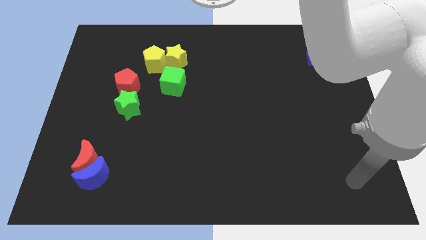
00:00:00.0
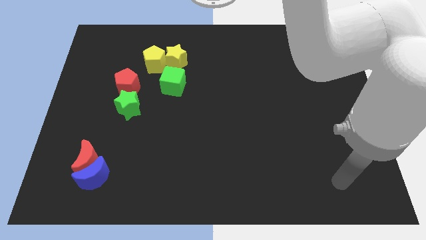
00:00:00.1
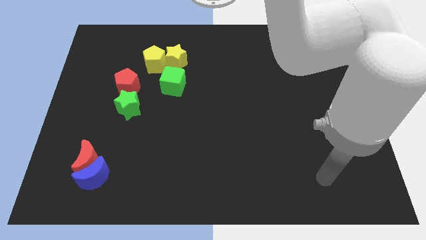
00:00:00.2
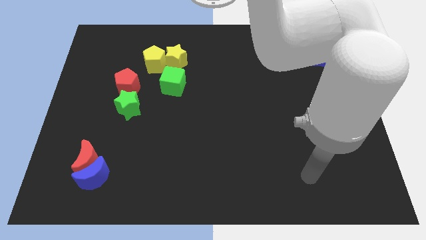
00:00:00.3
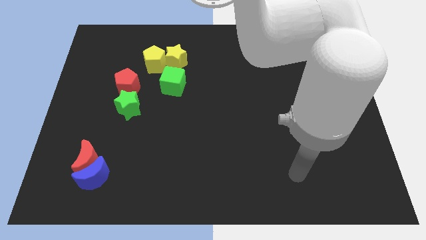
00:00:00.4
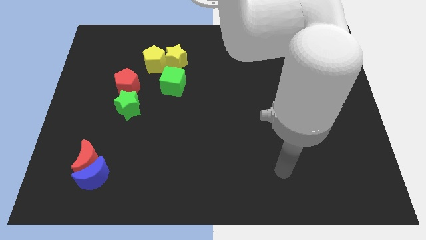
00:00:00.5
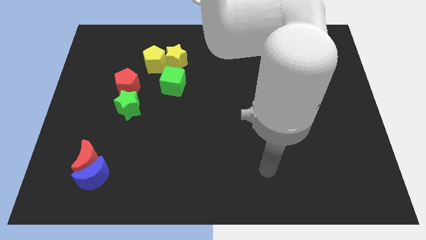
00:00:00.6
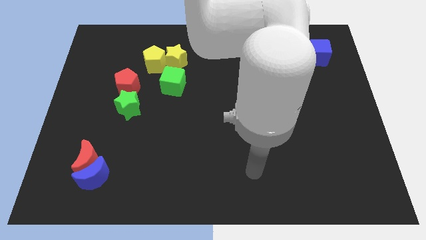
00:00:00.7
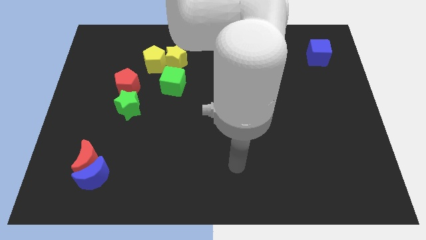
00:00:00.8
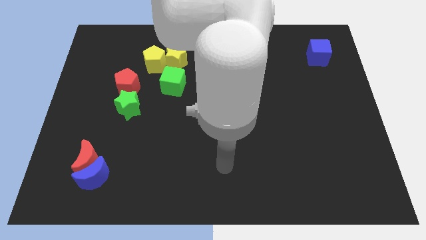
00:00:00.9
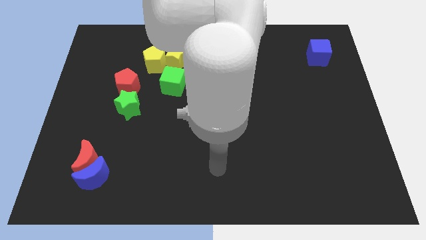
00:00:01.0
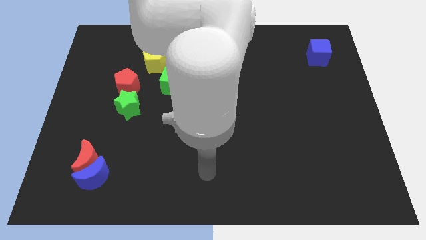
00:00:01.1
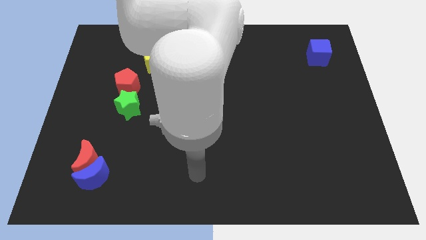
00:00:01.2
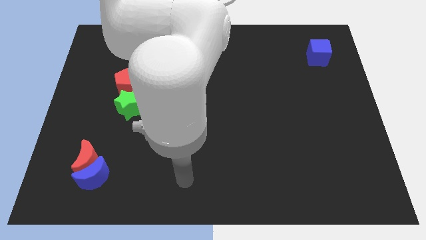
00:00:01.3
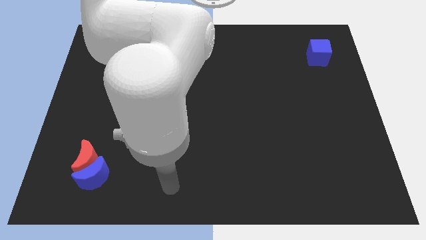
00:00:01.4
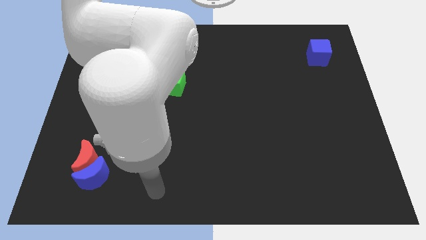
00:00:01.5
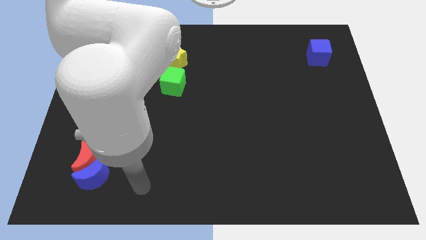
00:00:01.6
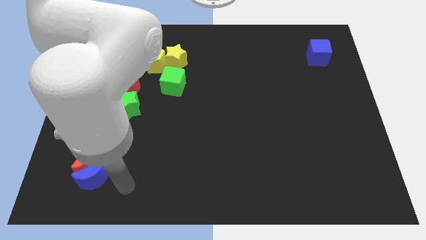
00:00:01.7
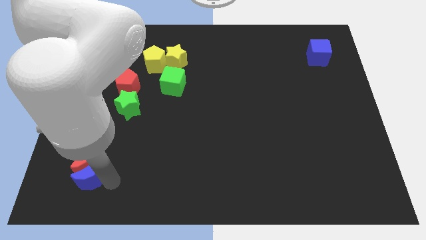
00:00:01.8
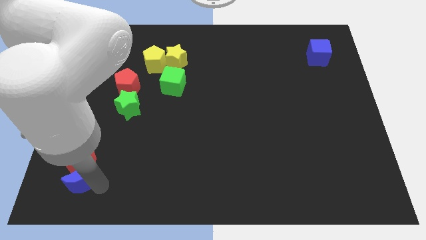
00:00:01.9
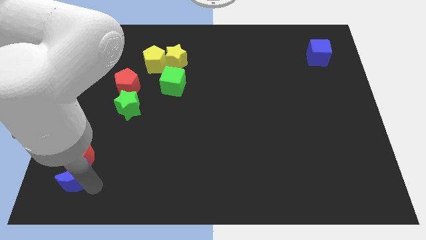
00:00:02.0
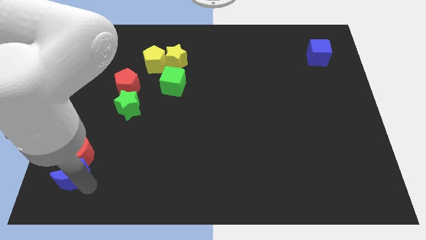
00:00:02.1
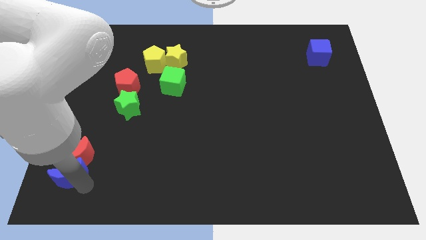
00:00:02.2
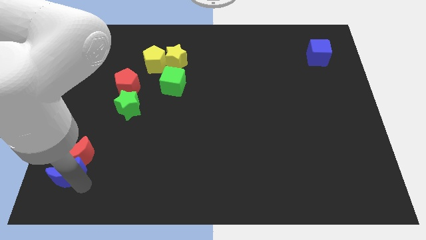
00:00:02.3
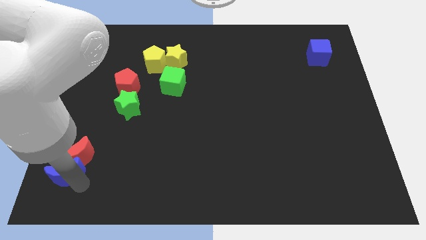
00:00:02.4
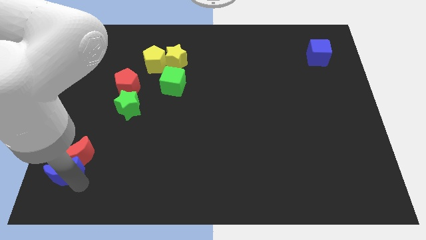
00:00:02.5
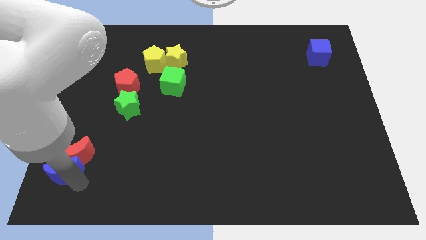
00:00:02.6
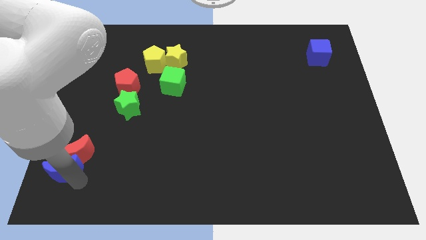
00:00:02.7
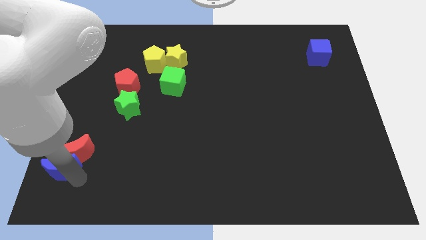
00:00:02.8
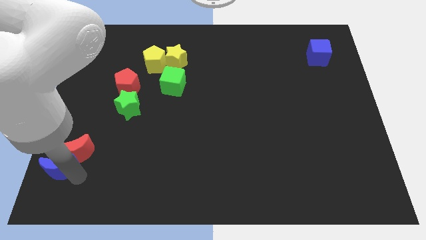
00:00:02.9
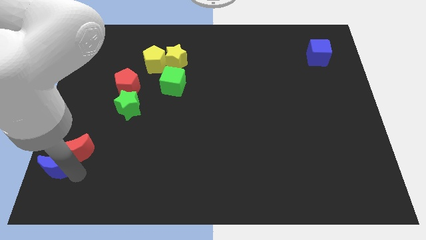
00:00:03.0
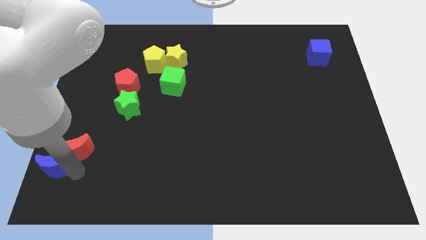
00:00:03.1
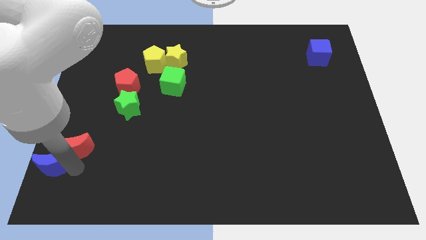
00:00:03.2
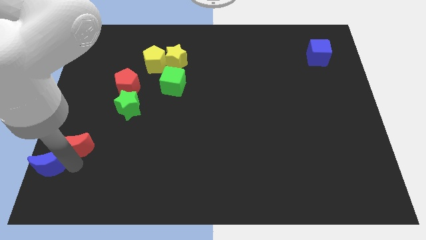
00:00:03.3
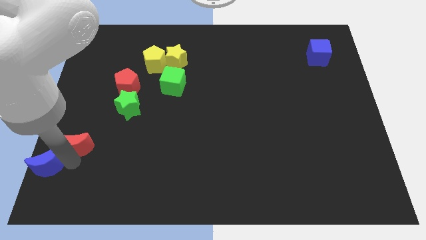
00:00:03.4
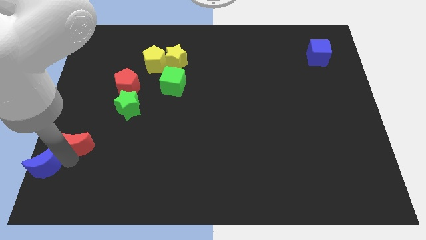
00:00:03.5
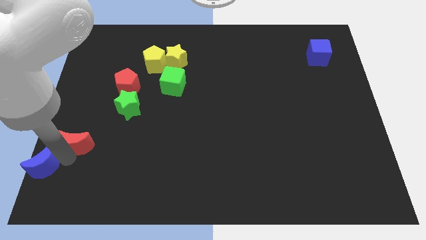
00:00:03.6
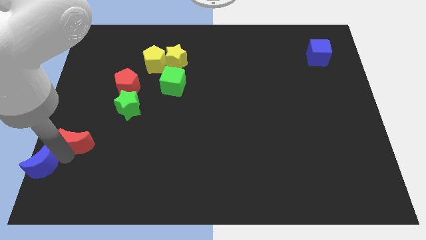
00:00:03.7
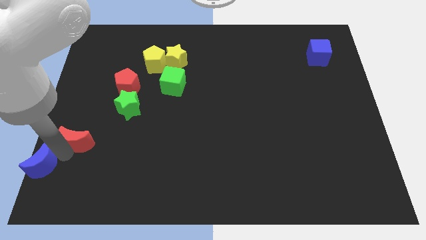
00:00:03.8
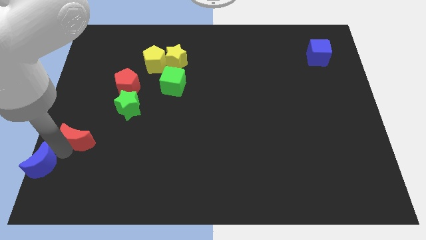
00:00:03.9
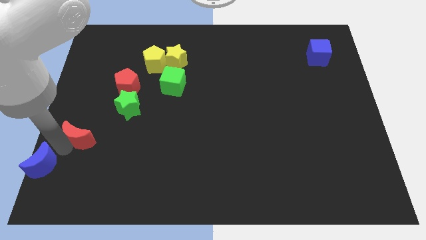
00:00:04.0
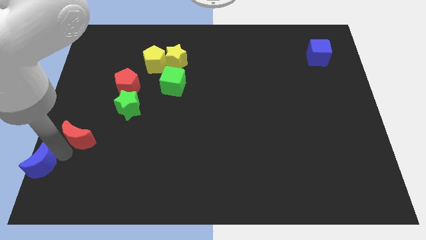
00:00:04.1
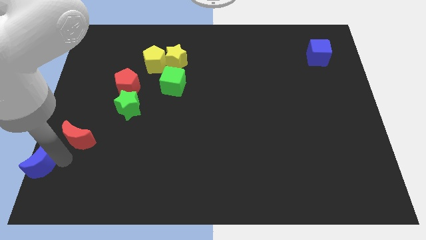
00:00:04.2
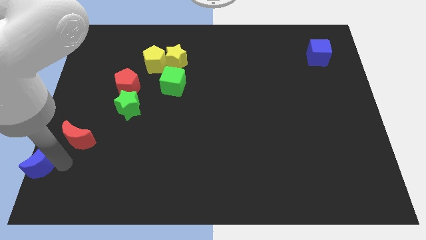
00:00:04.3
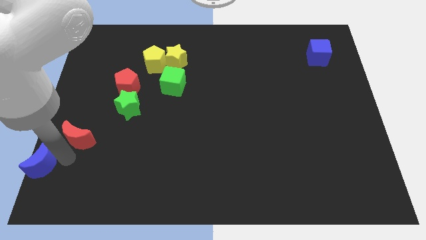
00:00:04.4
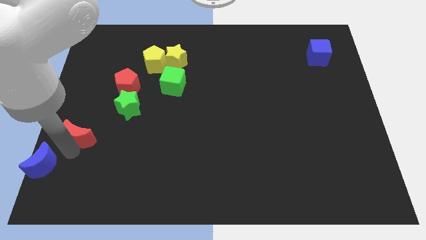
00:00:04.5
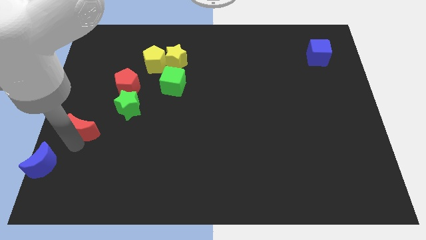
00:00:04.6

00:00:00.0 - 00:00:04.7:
move the red moon upwards a little bit

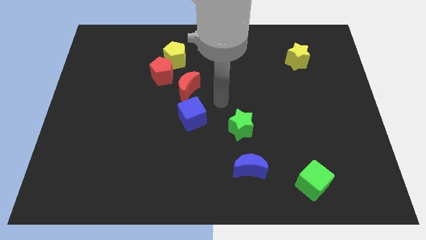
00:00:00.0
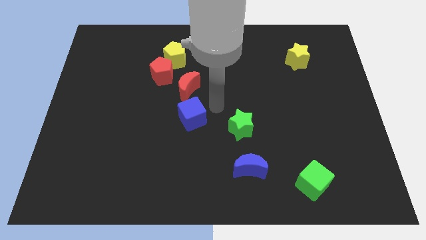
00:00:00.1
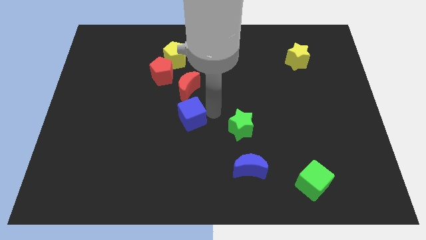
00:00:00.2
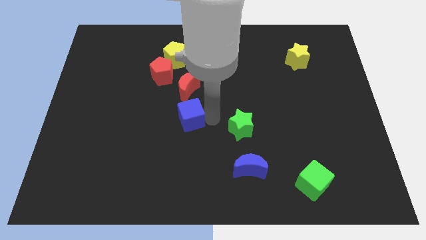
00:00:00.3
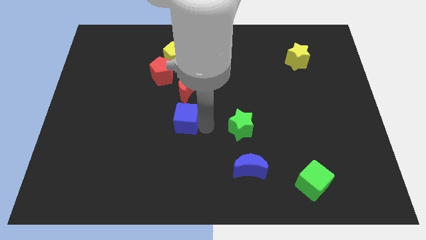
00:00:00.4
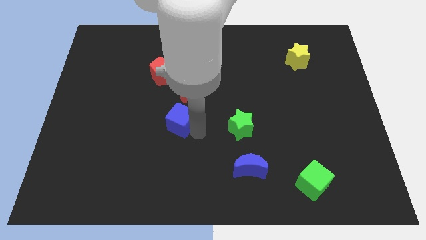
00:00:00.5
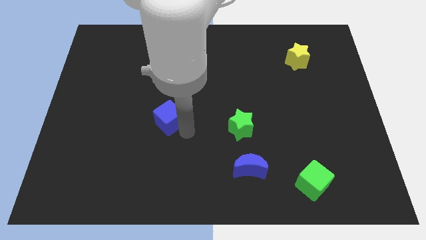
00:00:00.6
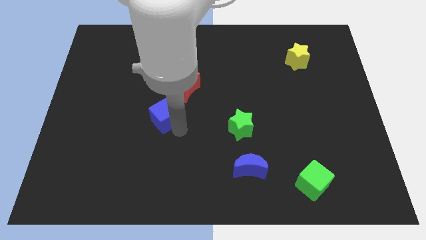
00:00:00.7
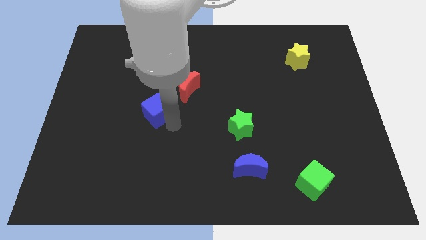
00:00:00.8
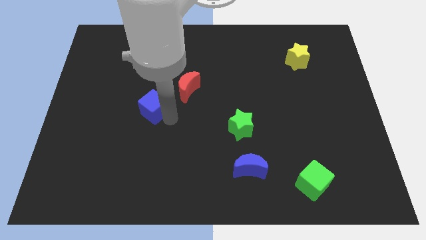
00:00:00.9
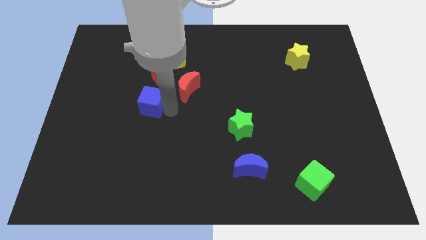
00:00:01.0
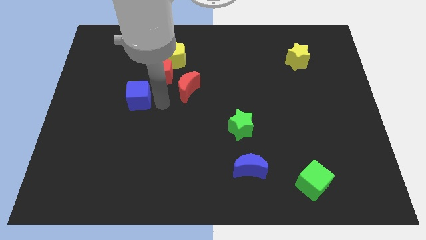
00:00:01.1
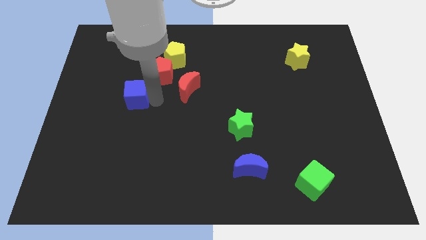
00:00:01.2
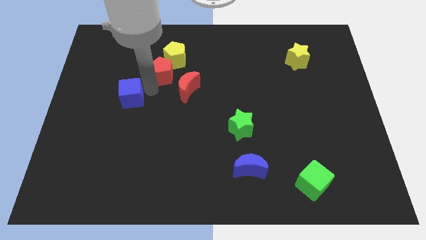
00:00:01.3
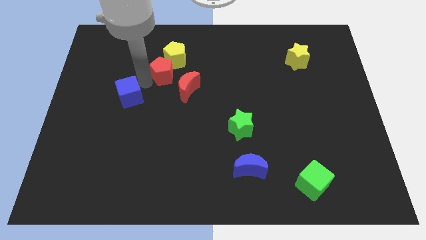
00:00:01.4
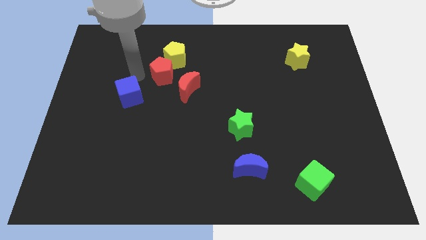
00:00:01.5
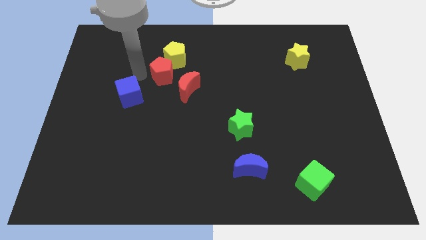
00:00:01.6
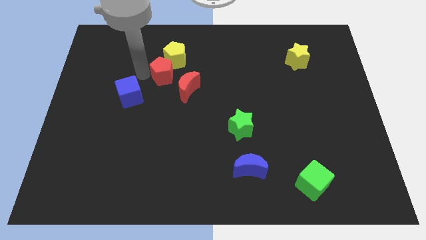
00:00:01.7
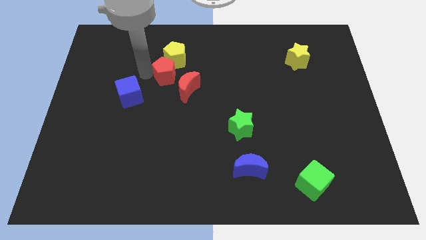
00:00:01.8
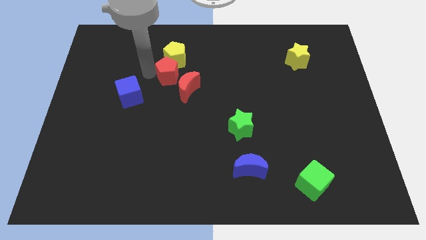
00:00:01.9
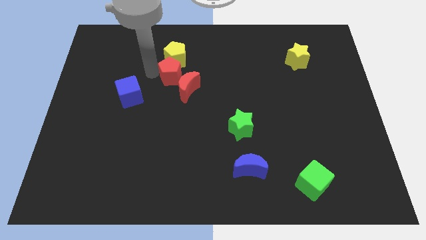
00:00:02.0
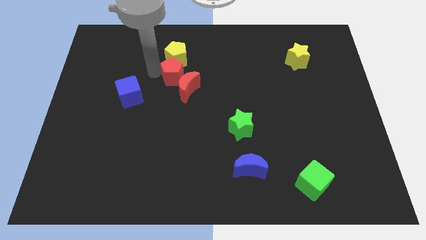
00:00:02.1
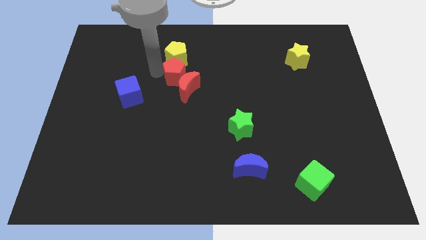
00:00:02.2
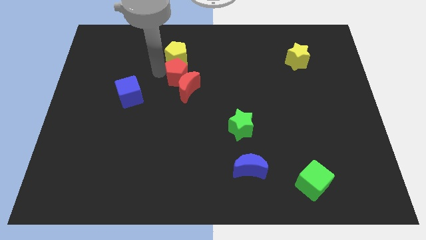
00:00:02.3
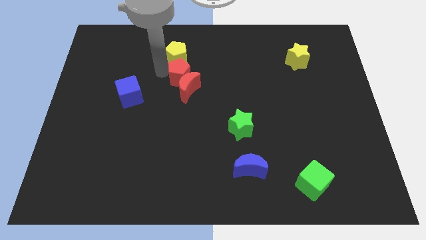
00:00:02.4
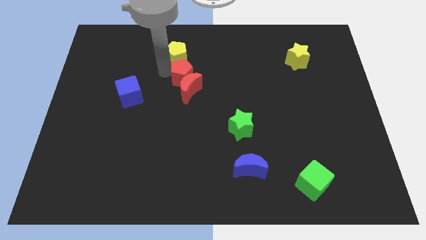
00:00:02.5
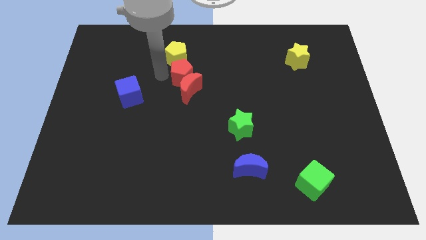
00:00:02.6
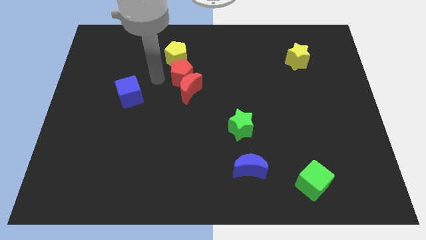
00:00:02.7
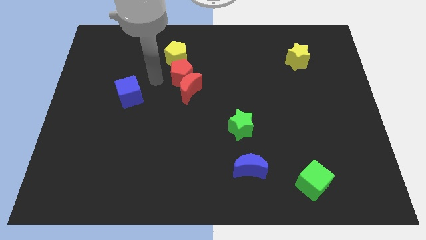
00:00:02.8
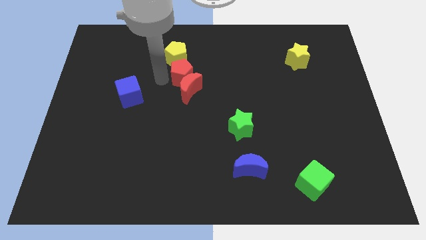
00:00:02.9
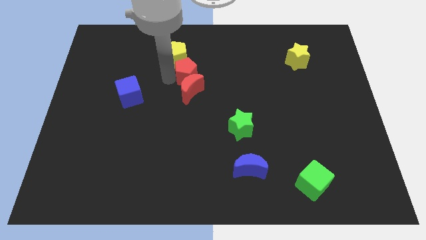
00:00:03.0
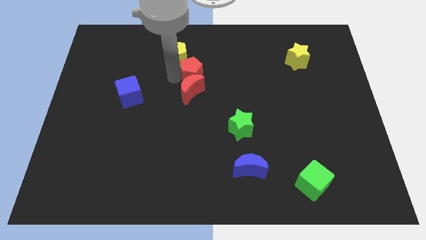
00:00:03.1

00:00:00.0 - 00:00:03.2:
move the red pentagon a bit to the right

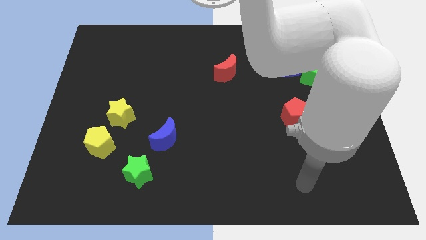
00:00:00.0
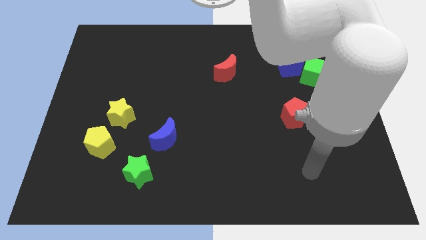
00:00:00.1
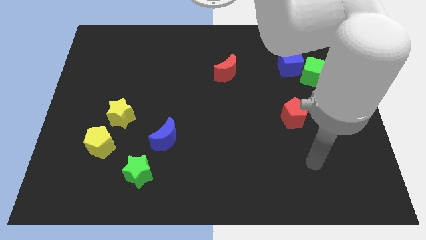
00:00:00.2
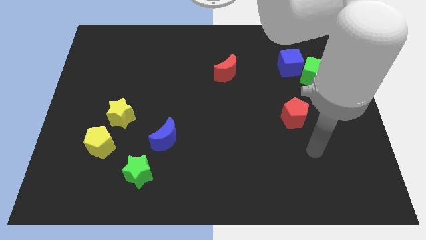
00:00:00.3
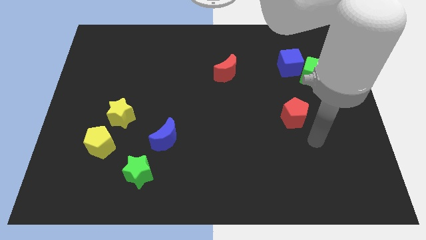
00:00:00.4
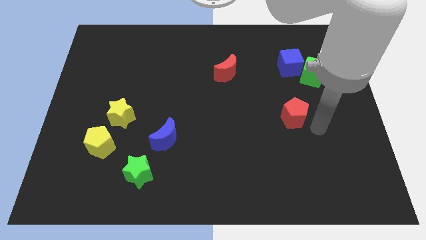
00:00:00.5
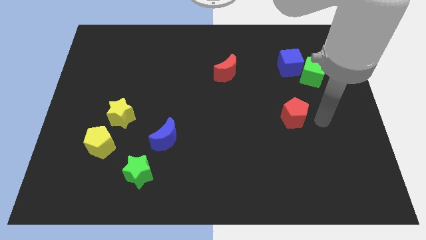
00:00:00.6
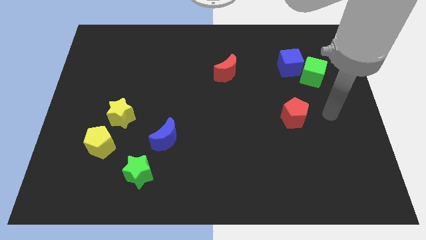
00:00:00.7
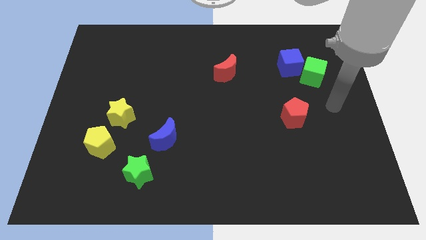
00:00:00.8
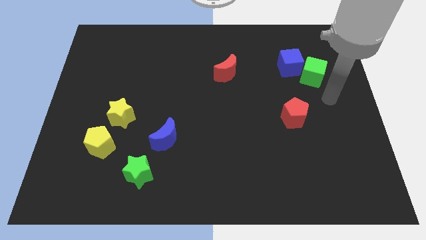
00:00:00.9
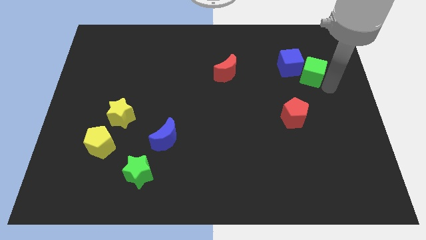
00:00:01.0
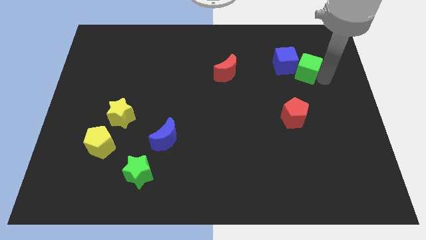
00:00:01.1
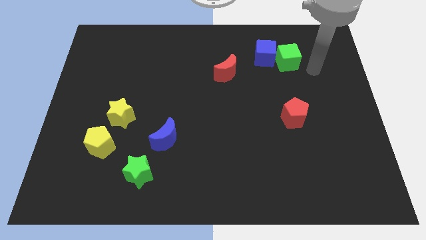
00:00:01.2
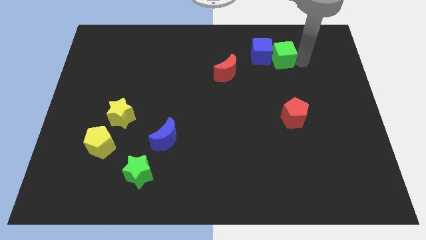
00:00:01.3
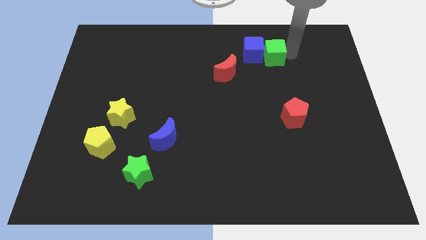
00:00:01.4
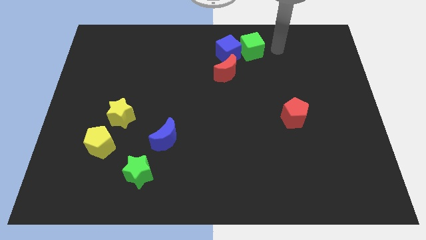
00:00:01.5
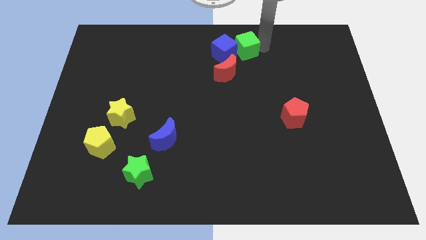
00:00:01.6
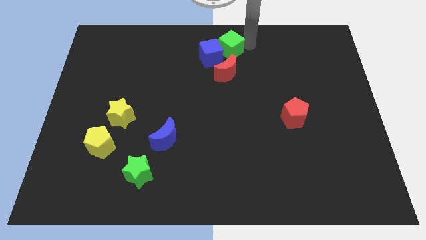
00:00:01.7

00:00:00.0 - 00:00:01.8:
move the blue cube left
